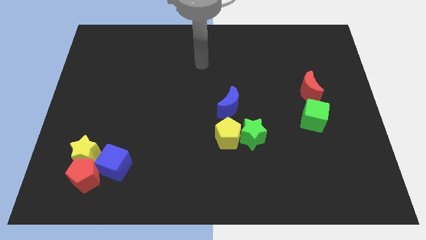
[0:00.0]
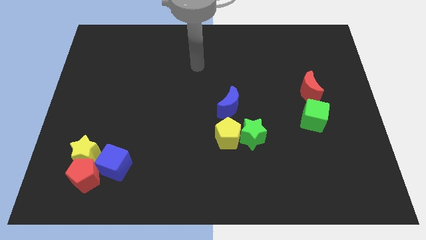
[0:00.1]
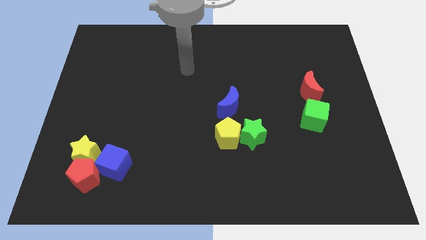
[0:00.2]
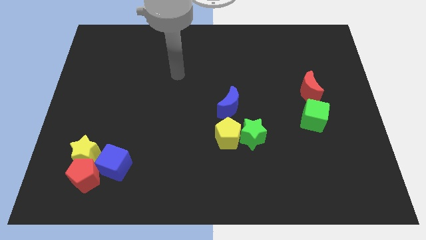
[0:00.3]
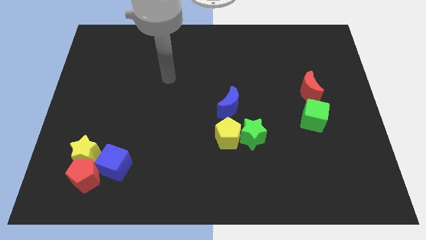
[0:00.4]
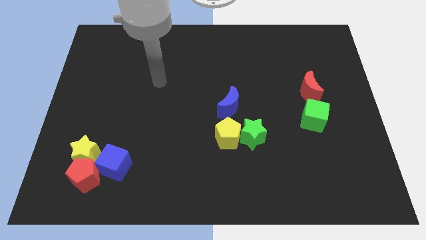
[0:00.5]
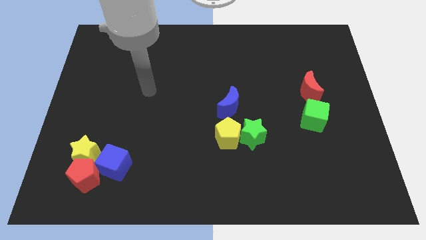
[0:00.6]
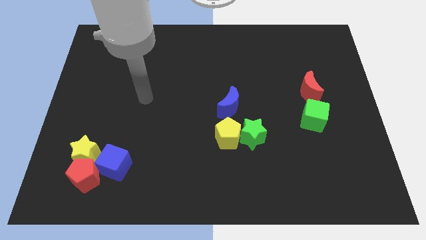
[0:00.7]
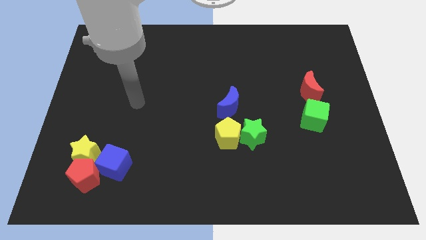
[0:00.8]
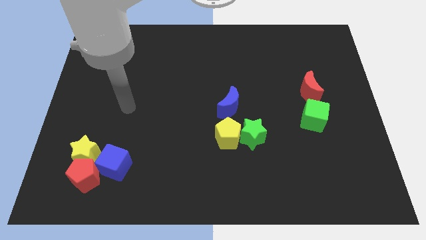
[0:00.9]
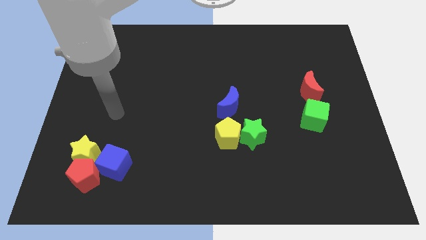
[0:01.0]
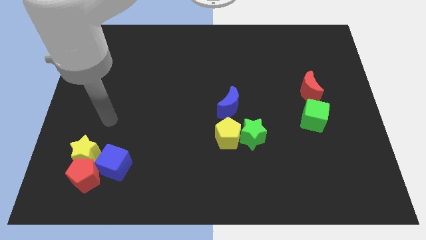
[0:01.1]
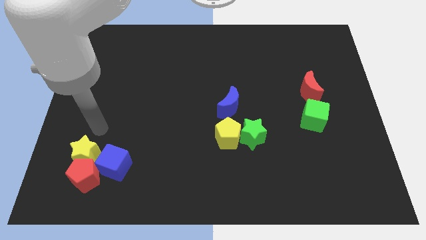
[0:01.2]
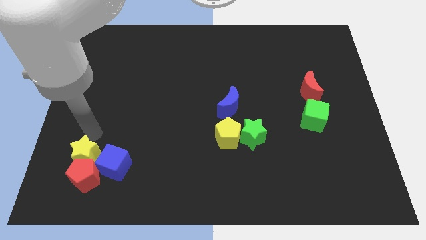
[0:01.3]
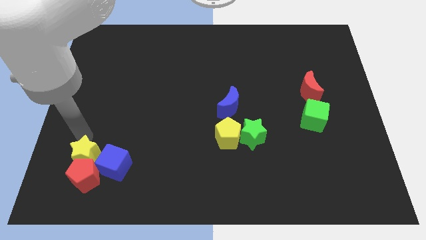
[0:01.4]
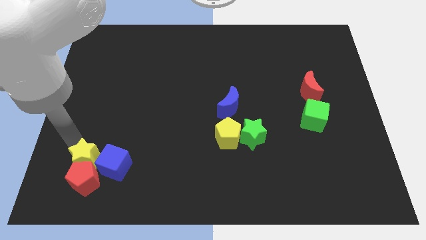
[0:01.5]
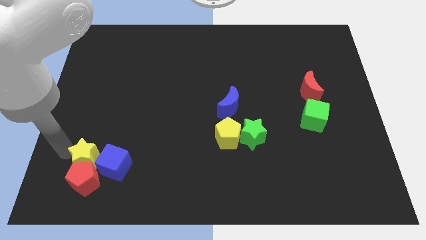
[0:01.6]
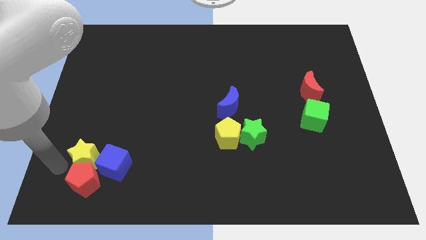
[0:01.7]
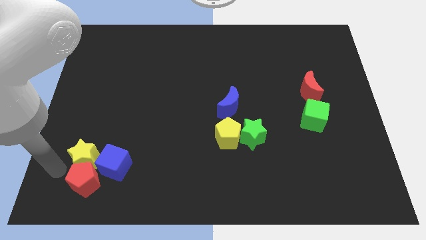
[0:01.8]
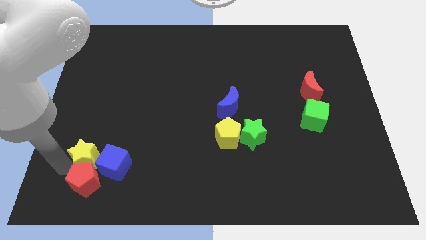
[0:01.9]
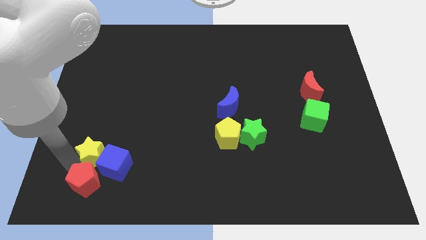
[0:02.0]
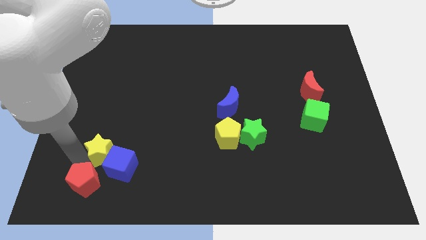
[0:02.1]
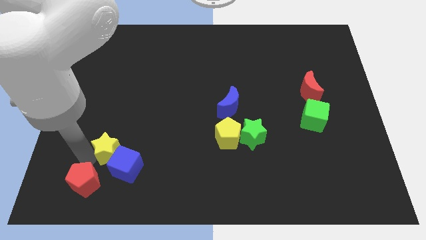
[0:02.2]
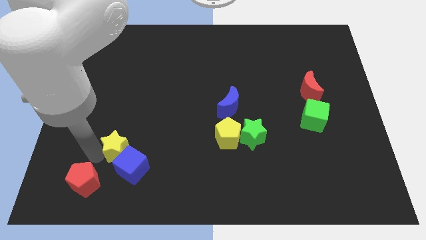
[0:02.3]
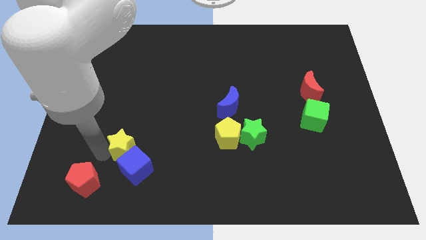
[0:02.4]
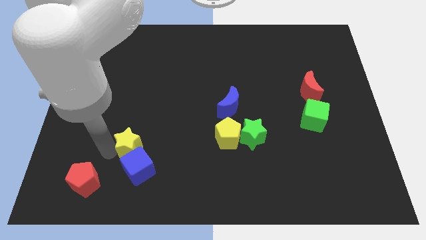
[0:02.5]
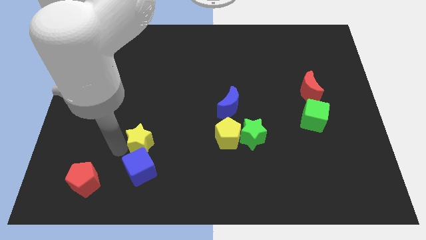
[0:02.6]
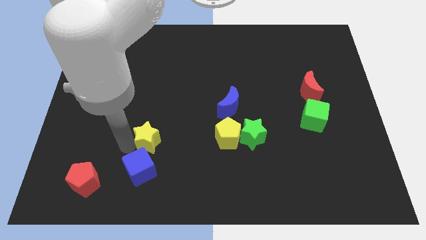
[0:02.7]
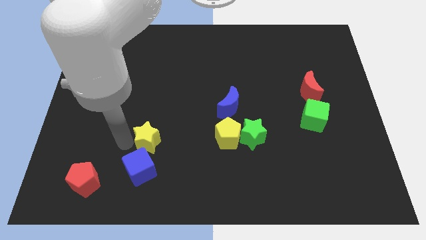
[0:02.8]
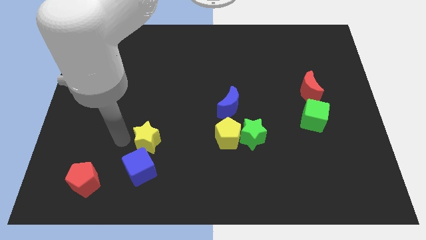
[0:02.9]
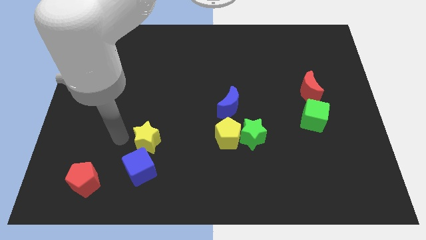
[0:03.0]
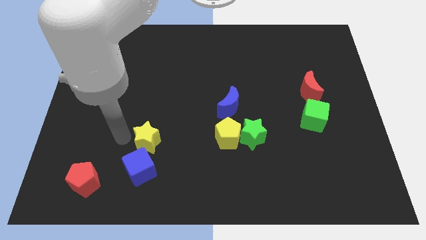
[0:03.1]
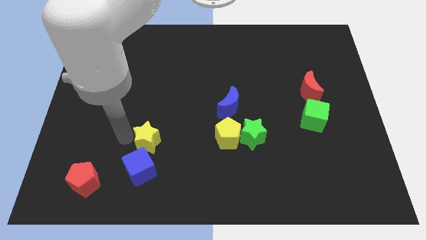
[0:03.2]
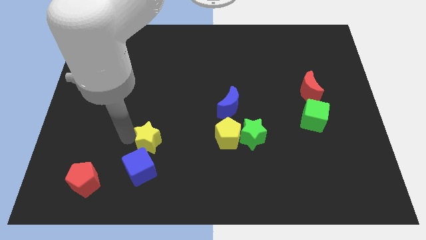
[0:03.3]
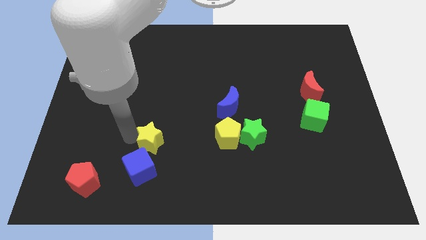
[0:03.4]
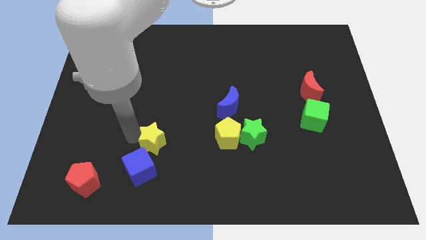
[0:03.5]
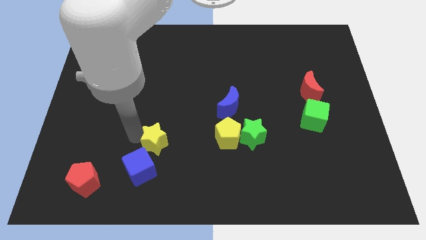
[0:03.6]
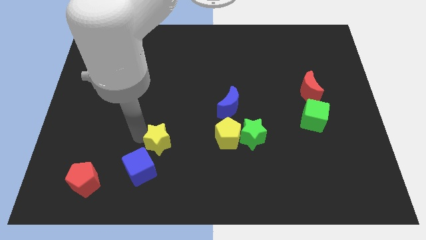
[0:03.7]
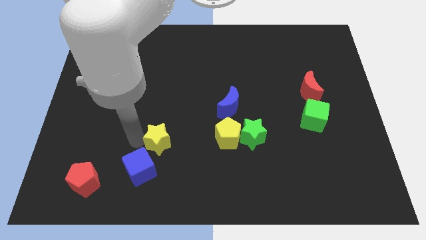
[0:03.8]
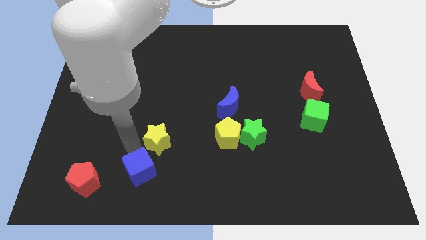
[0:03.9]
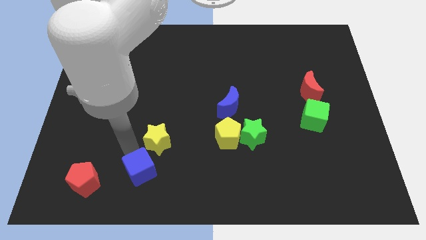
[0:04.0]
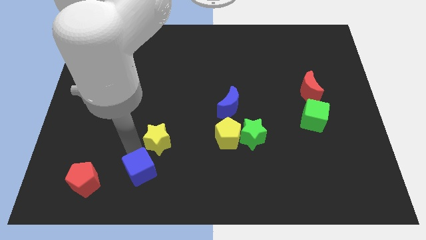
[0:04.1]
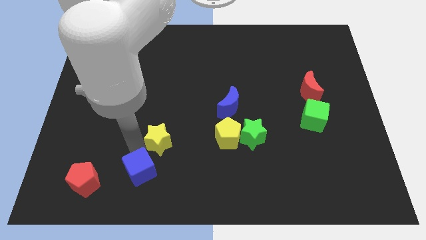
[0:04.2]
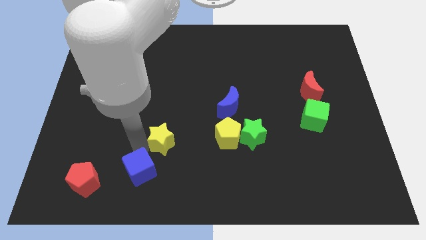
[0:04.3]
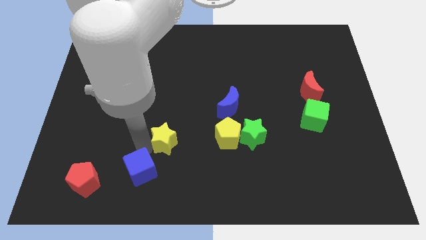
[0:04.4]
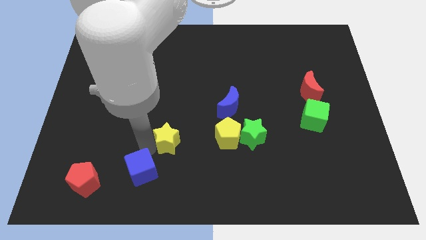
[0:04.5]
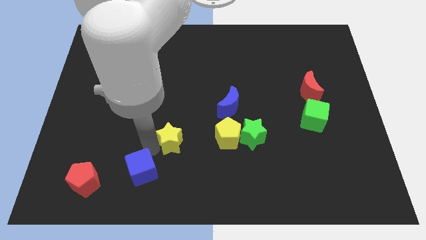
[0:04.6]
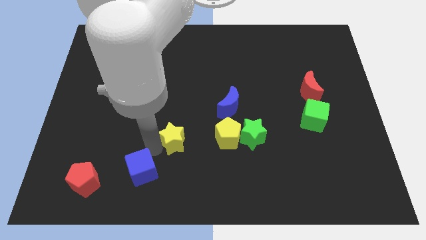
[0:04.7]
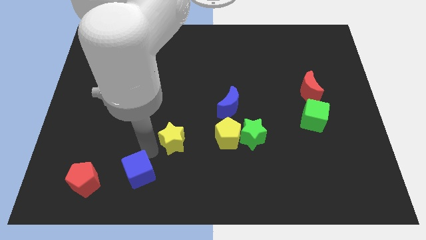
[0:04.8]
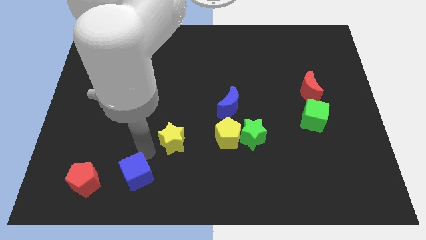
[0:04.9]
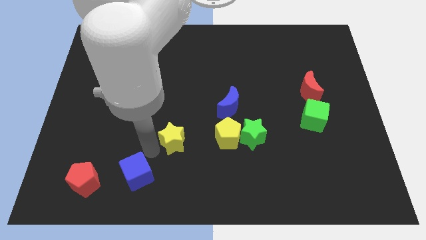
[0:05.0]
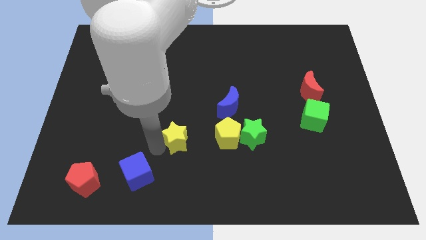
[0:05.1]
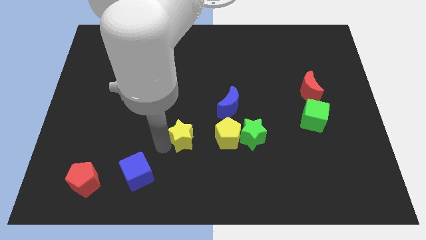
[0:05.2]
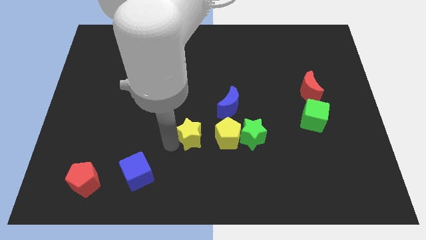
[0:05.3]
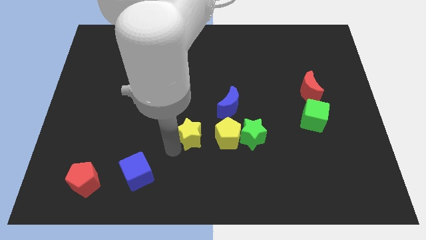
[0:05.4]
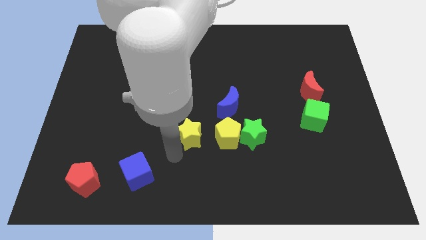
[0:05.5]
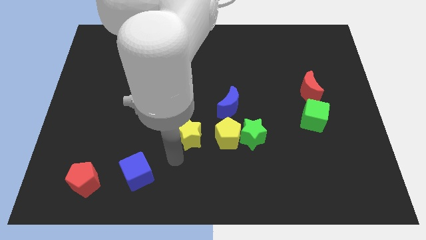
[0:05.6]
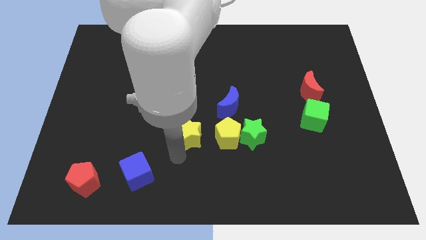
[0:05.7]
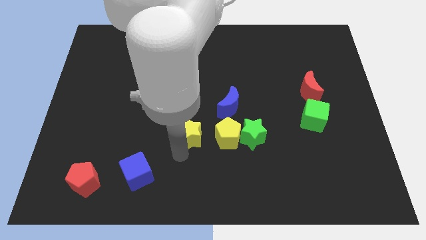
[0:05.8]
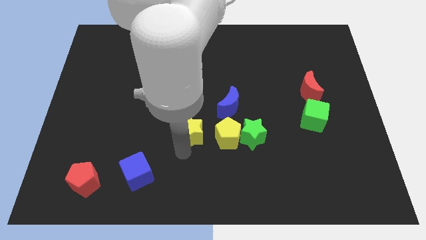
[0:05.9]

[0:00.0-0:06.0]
push the yellow star diagonally up and to the left of the yellow pentagon

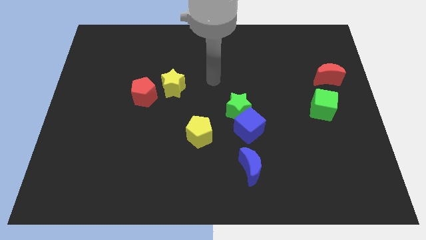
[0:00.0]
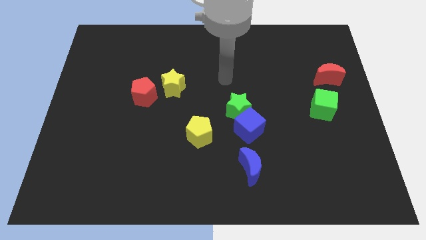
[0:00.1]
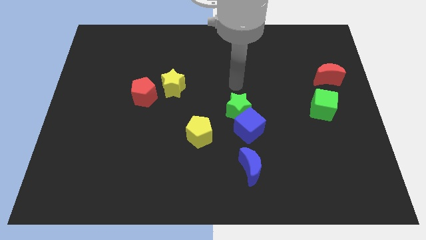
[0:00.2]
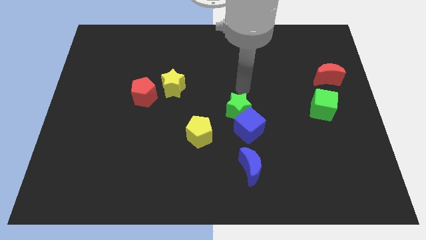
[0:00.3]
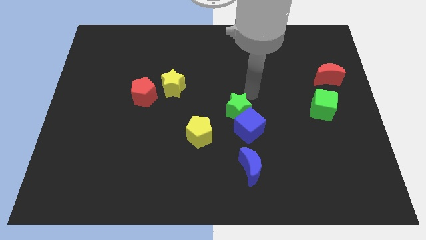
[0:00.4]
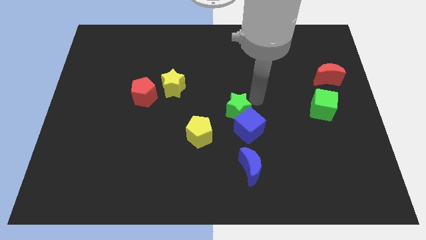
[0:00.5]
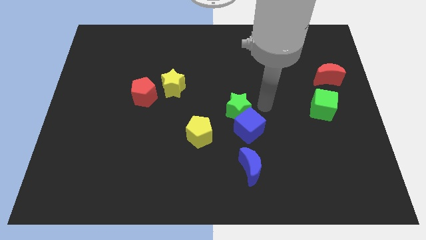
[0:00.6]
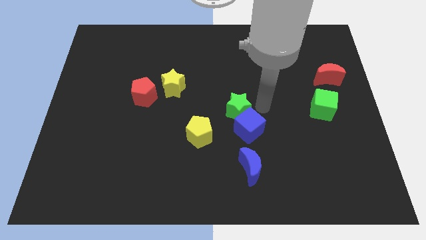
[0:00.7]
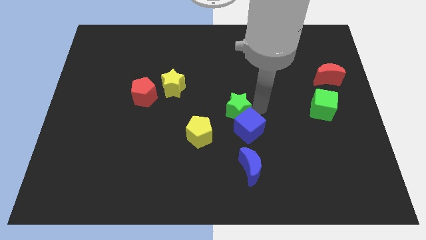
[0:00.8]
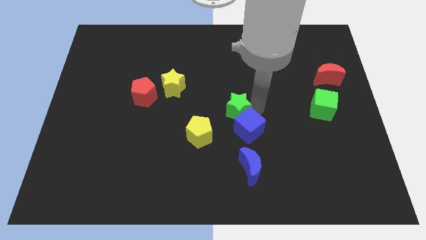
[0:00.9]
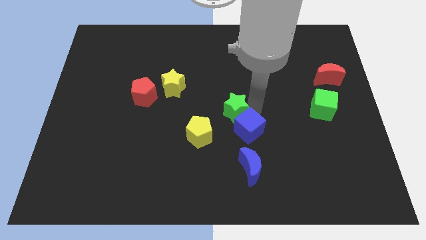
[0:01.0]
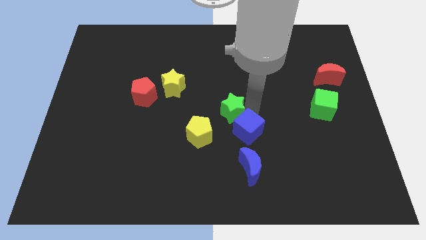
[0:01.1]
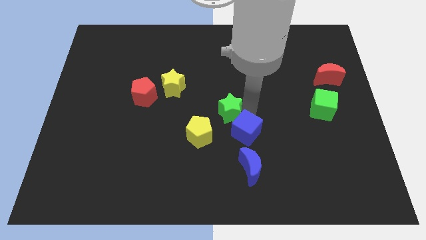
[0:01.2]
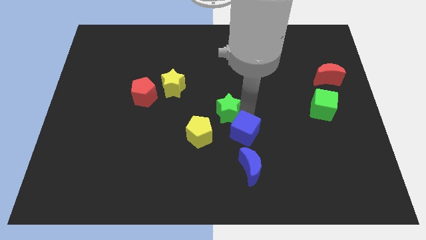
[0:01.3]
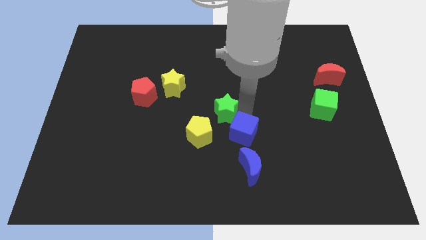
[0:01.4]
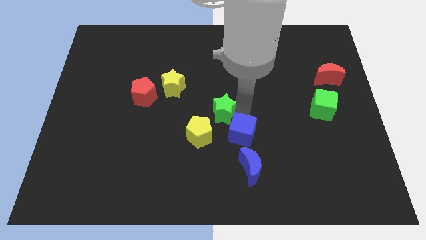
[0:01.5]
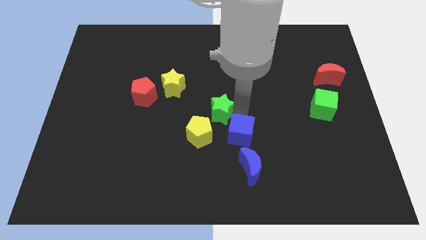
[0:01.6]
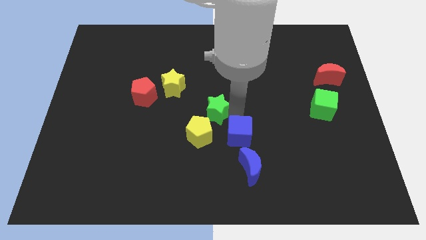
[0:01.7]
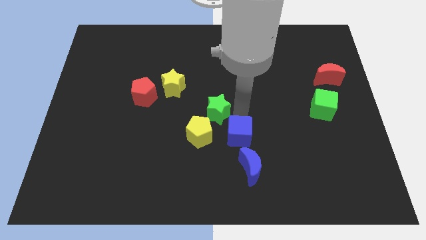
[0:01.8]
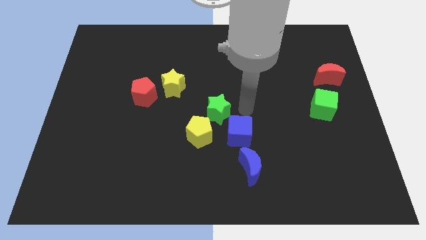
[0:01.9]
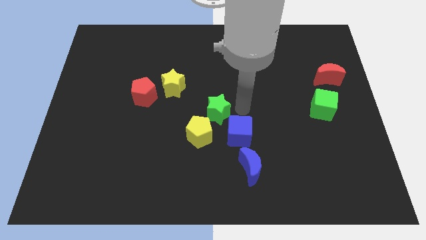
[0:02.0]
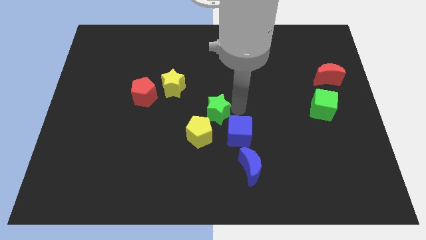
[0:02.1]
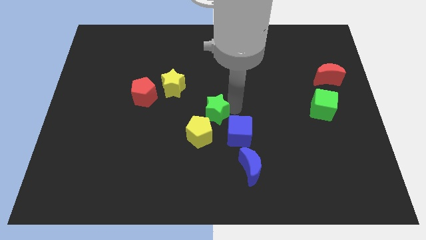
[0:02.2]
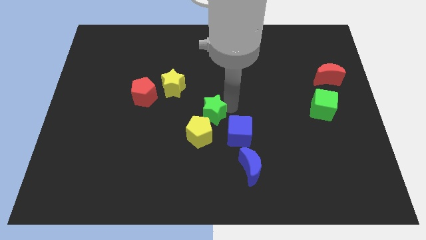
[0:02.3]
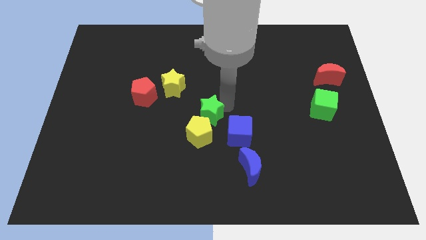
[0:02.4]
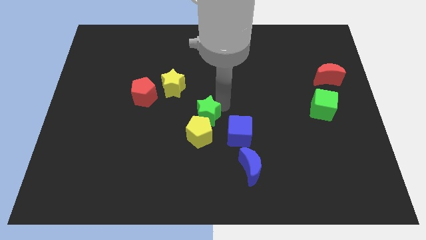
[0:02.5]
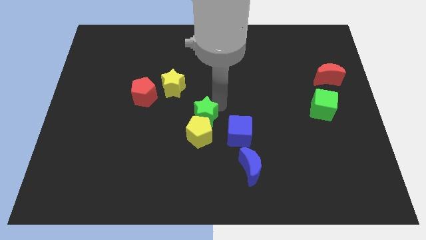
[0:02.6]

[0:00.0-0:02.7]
slide the green star to the top left side of the yellow pentagon
